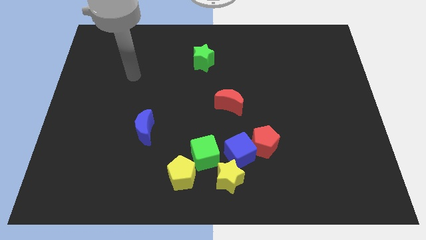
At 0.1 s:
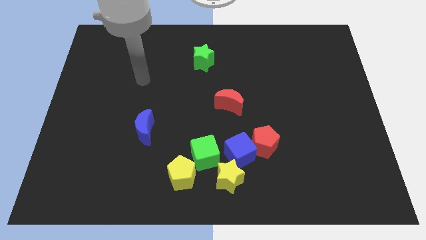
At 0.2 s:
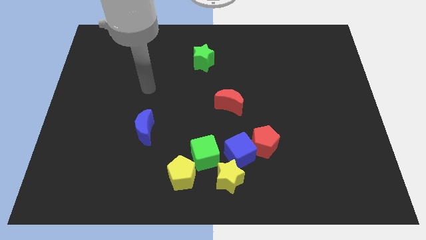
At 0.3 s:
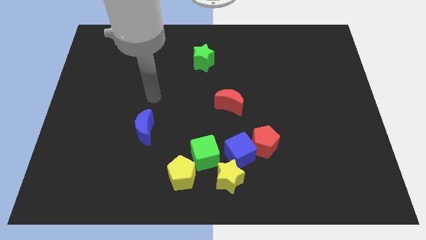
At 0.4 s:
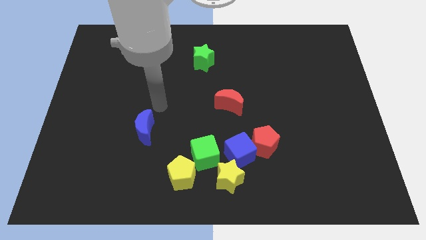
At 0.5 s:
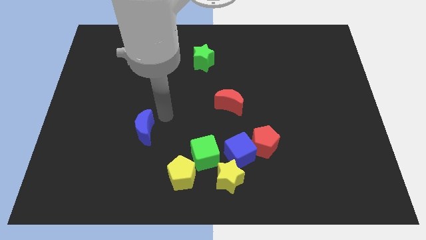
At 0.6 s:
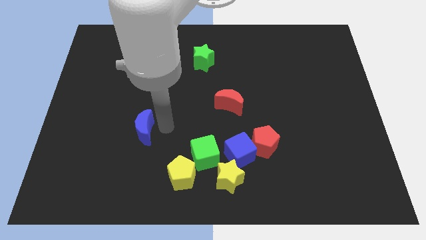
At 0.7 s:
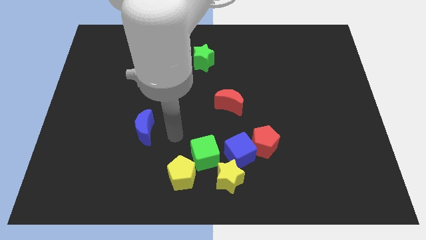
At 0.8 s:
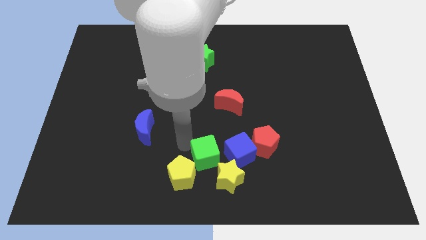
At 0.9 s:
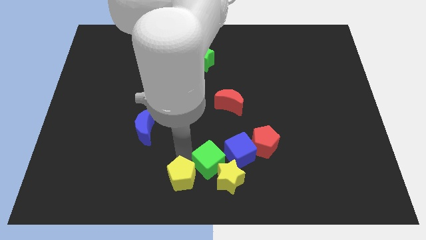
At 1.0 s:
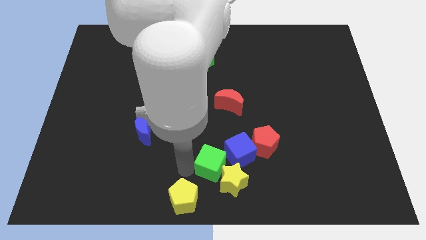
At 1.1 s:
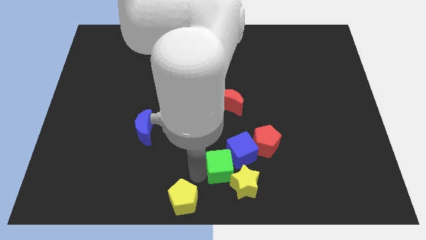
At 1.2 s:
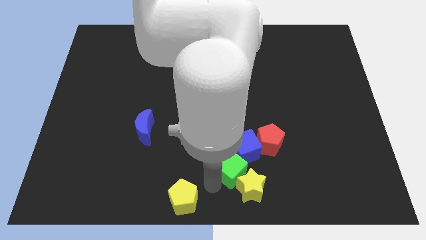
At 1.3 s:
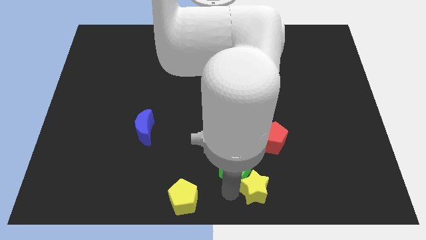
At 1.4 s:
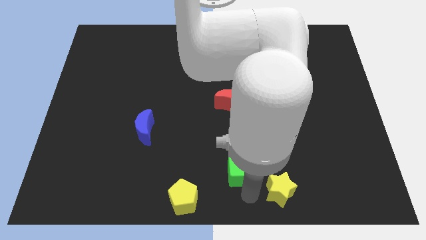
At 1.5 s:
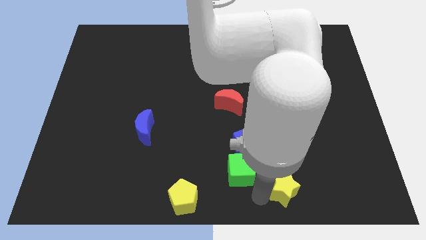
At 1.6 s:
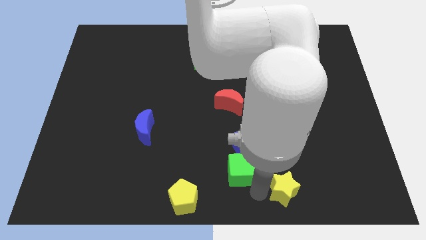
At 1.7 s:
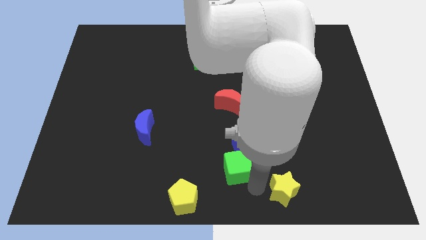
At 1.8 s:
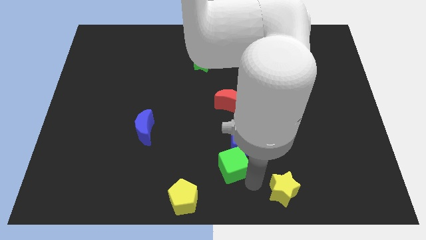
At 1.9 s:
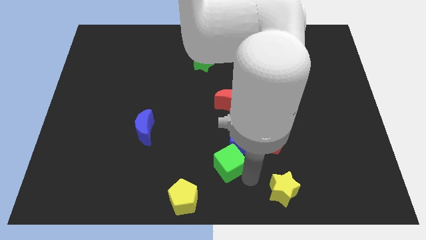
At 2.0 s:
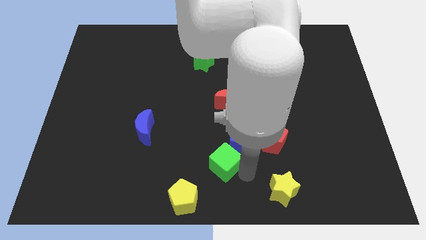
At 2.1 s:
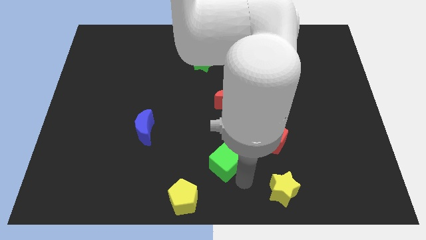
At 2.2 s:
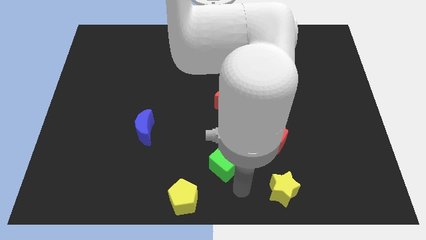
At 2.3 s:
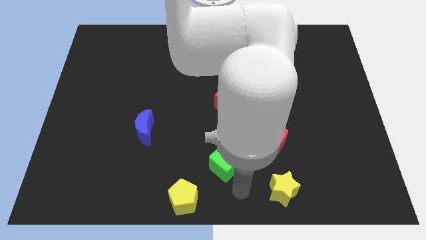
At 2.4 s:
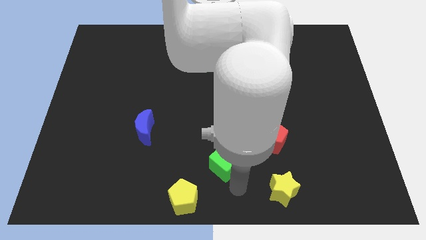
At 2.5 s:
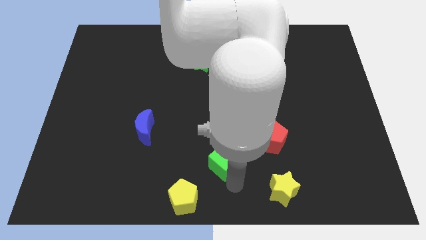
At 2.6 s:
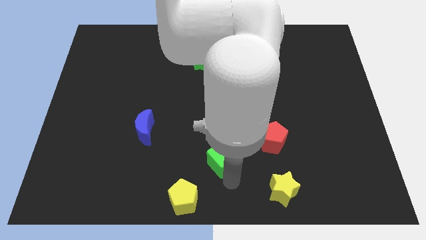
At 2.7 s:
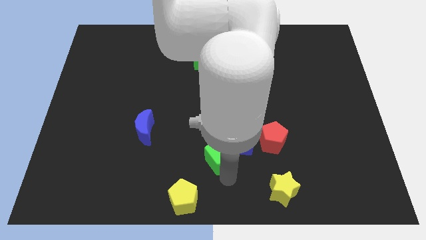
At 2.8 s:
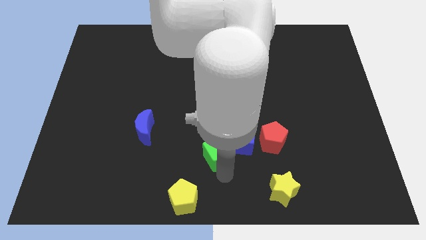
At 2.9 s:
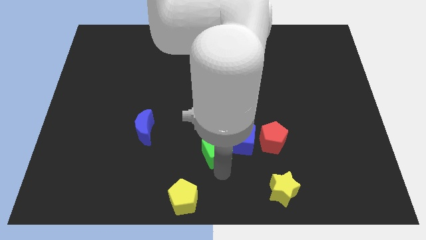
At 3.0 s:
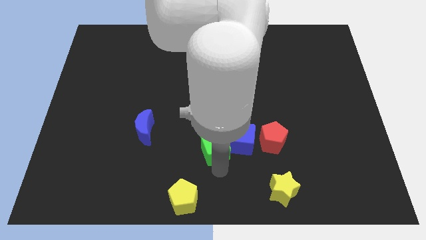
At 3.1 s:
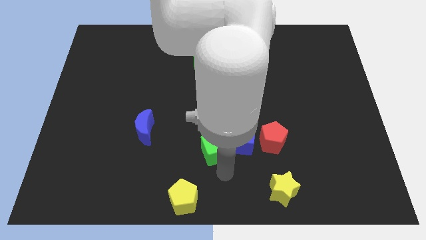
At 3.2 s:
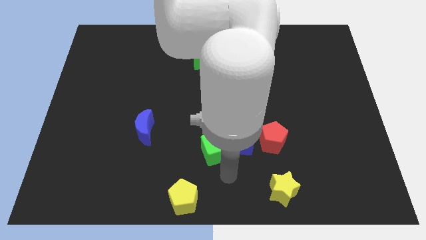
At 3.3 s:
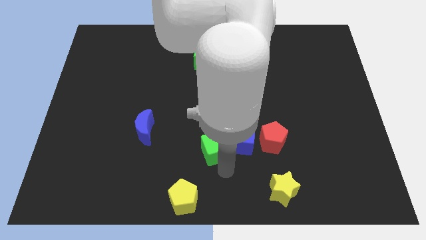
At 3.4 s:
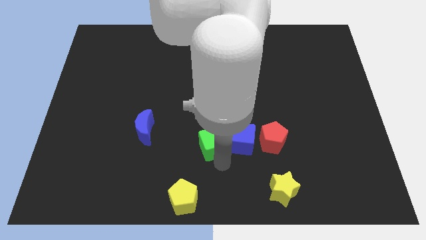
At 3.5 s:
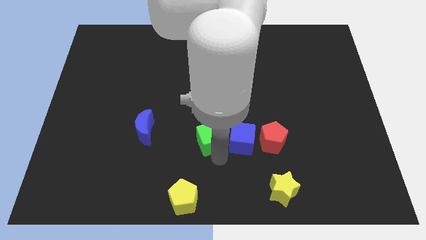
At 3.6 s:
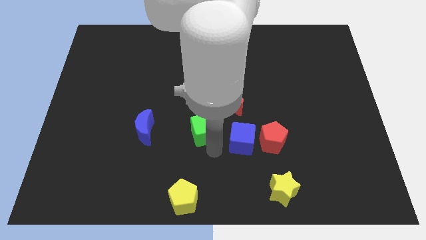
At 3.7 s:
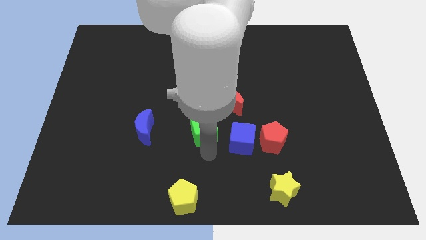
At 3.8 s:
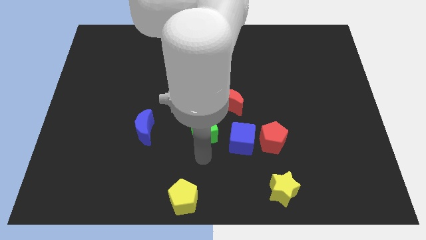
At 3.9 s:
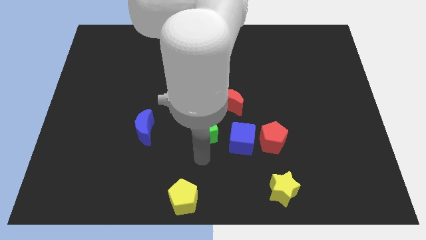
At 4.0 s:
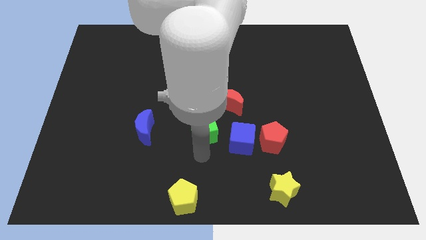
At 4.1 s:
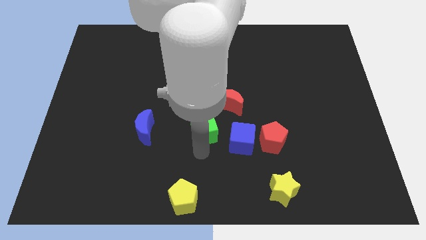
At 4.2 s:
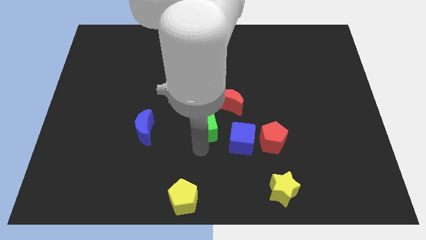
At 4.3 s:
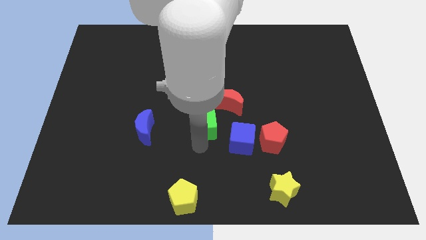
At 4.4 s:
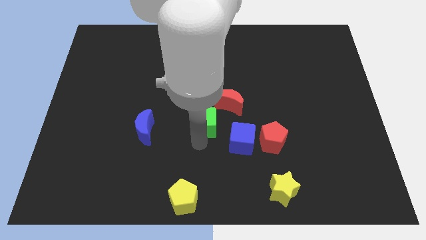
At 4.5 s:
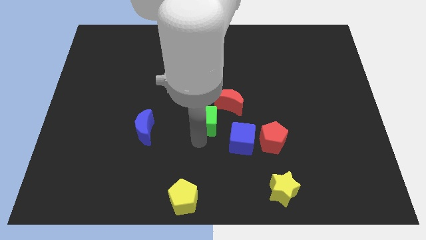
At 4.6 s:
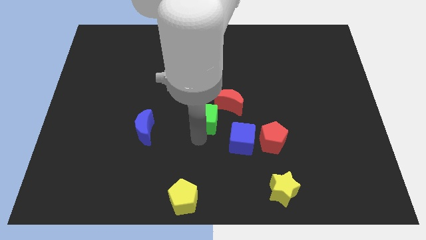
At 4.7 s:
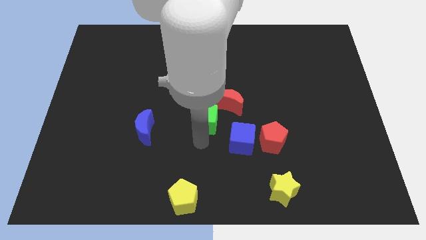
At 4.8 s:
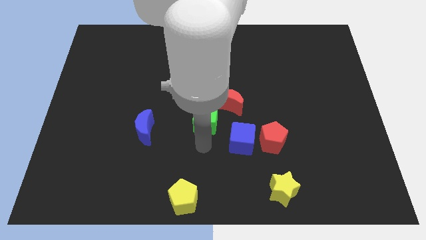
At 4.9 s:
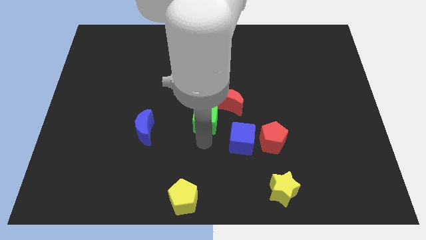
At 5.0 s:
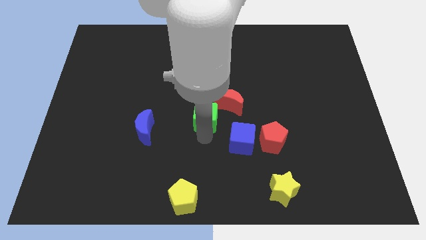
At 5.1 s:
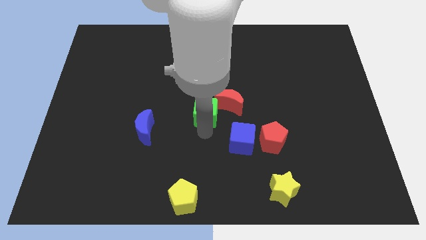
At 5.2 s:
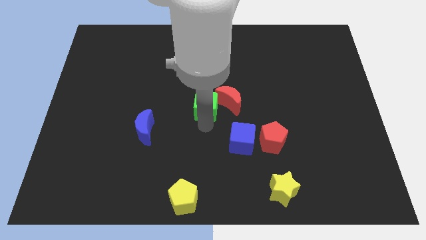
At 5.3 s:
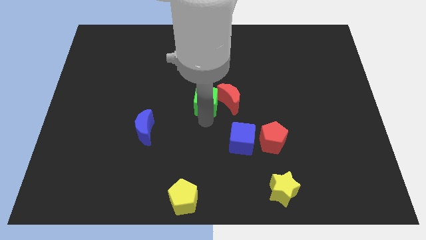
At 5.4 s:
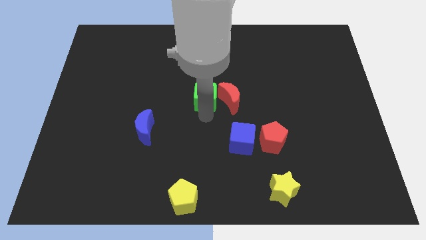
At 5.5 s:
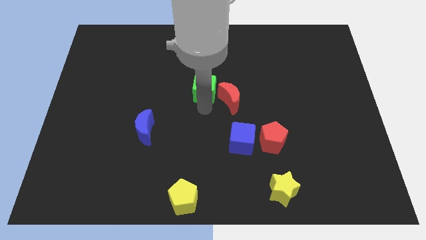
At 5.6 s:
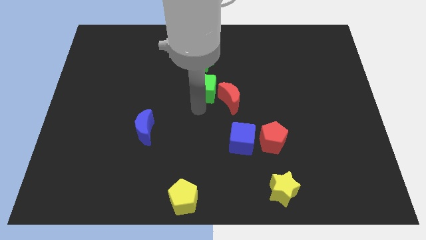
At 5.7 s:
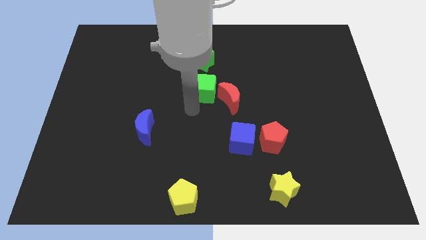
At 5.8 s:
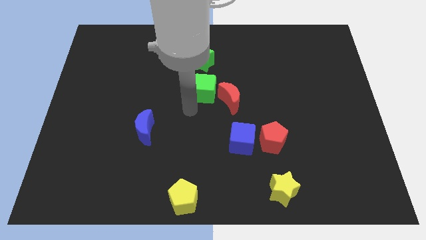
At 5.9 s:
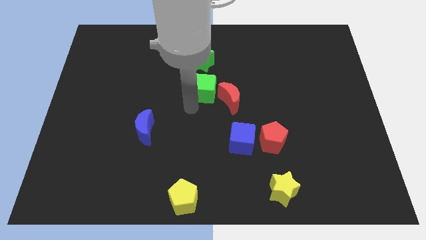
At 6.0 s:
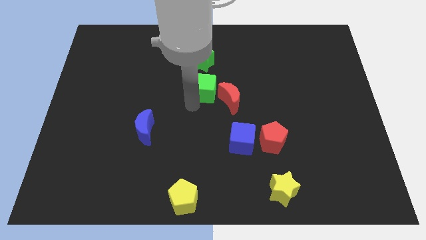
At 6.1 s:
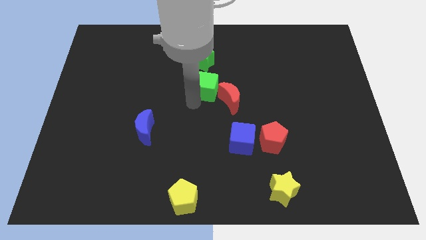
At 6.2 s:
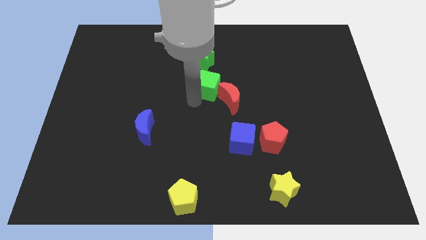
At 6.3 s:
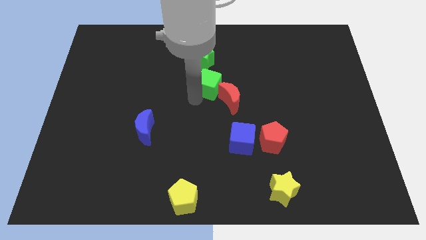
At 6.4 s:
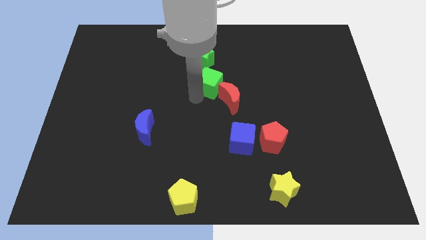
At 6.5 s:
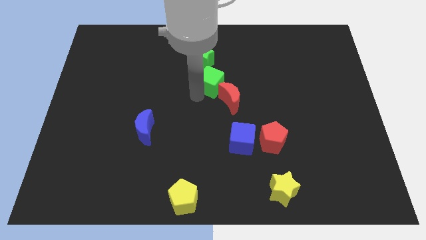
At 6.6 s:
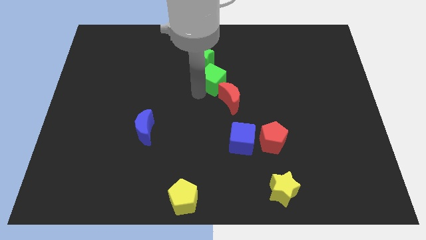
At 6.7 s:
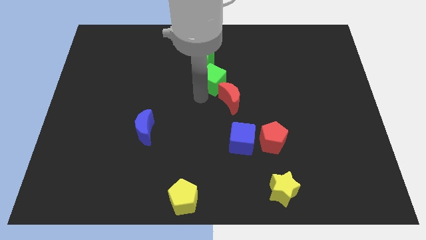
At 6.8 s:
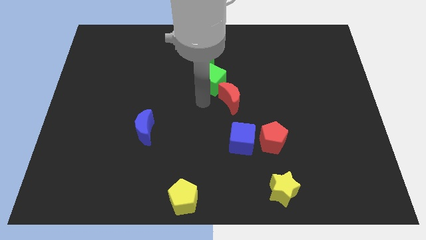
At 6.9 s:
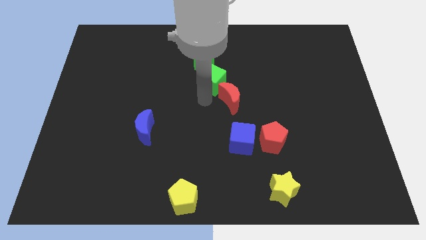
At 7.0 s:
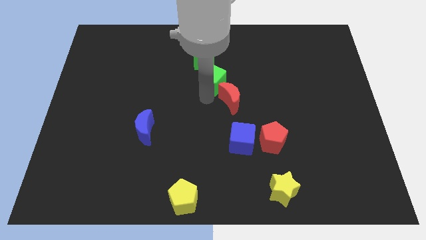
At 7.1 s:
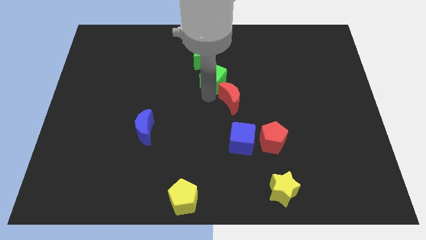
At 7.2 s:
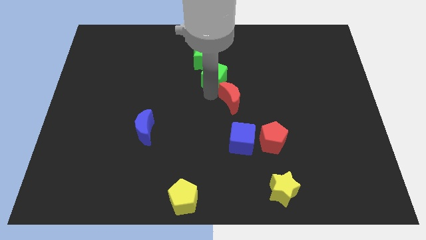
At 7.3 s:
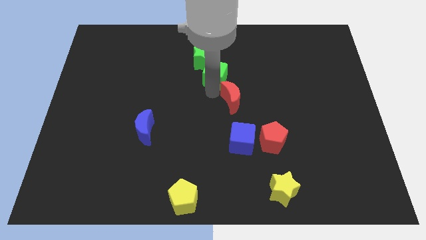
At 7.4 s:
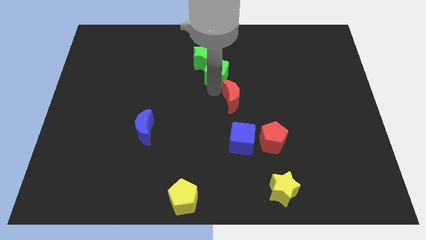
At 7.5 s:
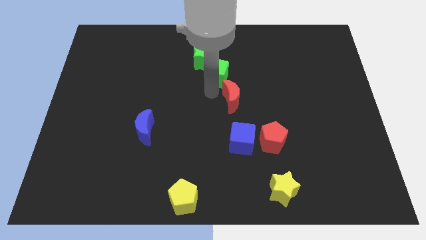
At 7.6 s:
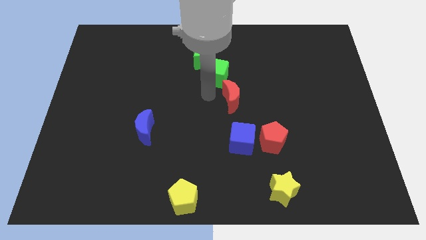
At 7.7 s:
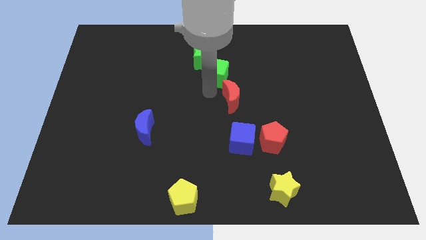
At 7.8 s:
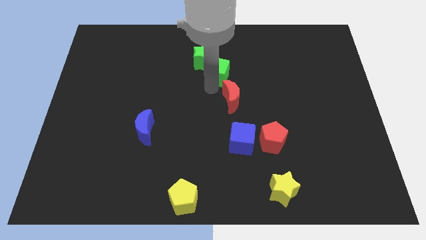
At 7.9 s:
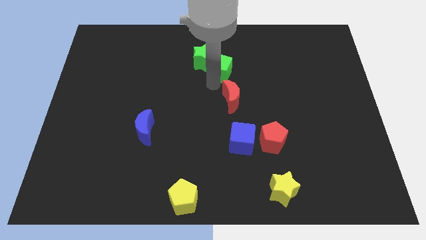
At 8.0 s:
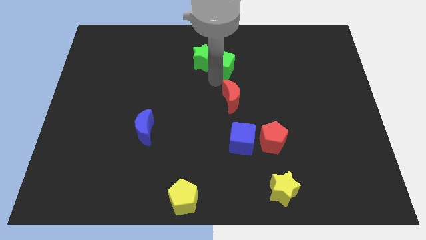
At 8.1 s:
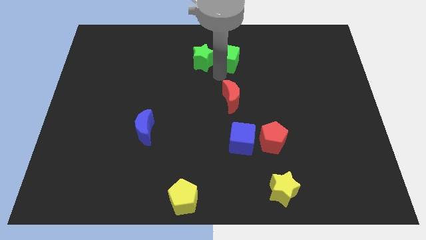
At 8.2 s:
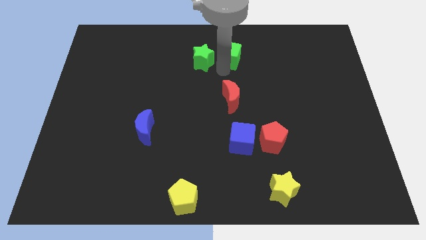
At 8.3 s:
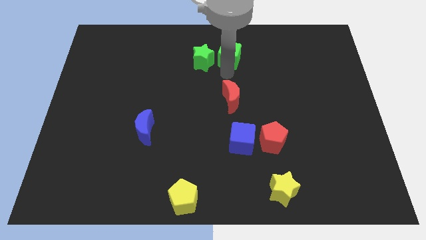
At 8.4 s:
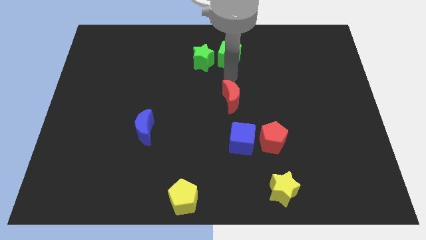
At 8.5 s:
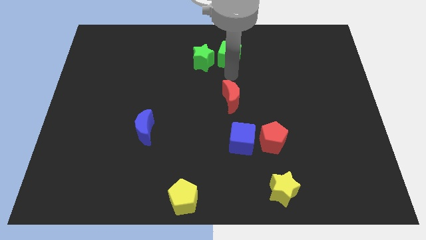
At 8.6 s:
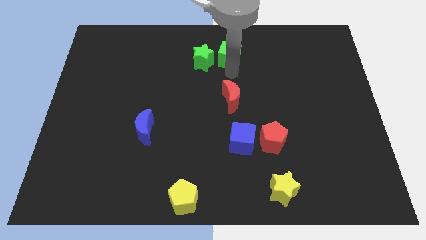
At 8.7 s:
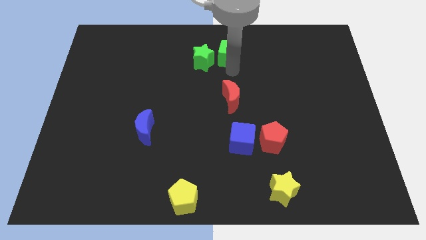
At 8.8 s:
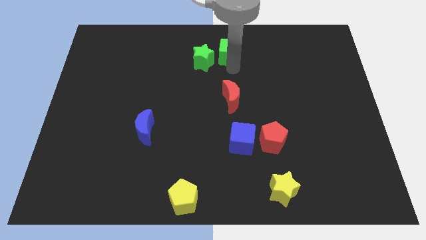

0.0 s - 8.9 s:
put the green cube to the towards your base
